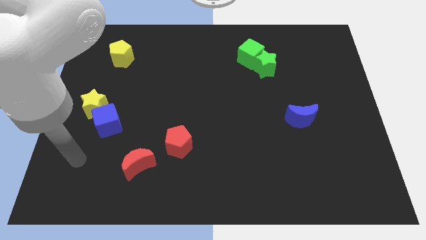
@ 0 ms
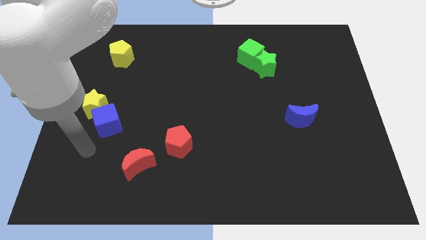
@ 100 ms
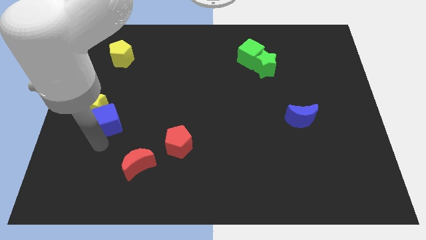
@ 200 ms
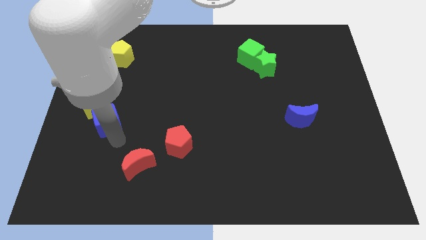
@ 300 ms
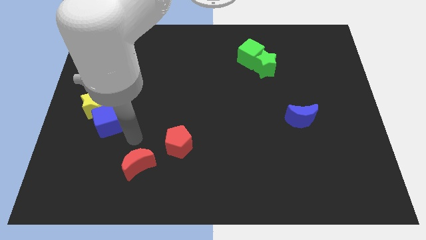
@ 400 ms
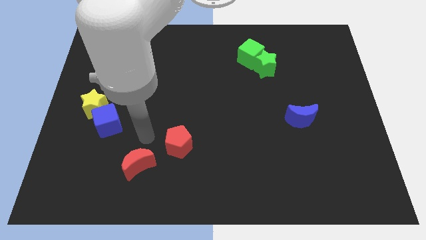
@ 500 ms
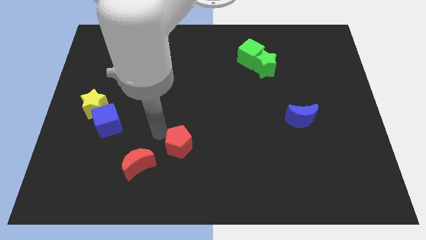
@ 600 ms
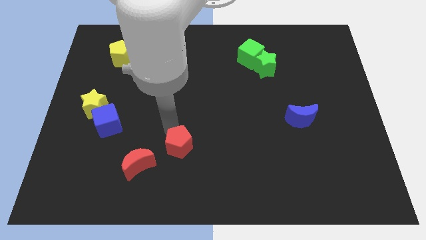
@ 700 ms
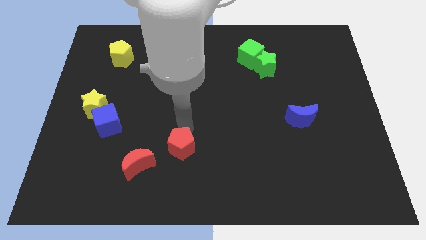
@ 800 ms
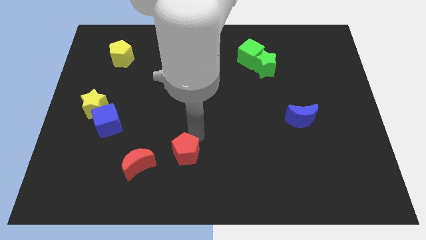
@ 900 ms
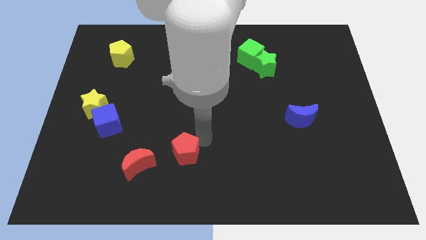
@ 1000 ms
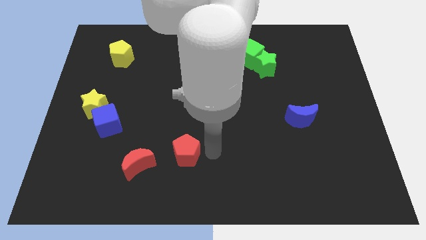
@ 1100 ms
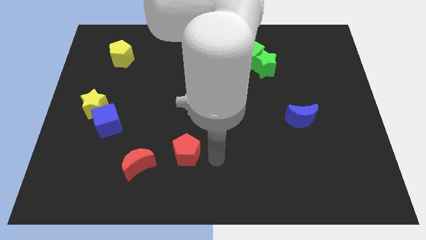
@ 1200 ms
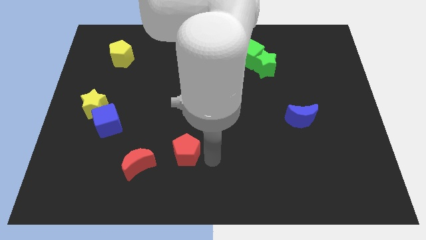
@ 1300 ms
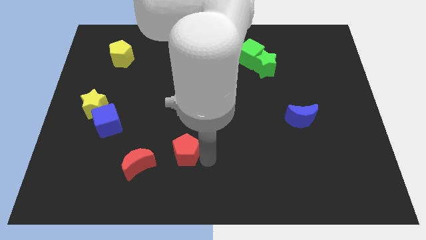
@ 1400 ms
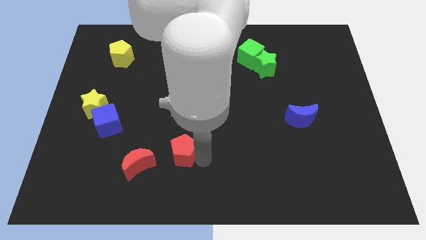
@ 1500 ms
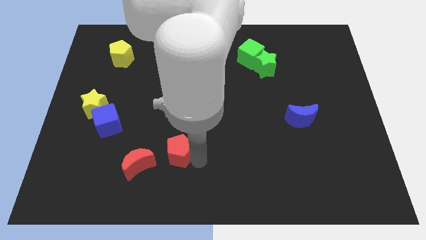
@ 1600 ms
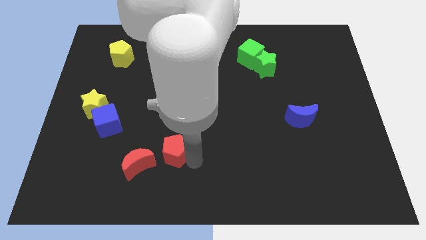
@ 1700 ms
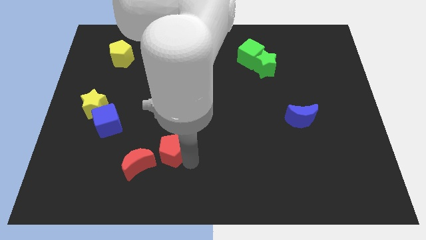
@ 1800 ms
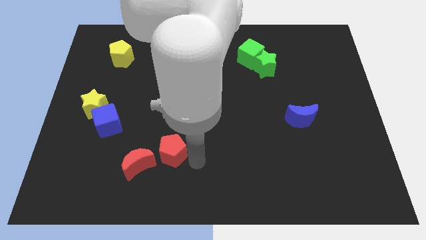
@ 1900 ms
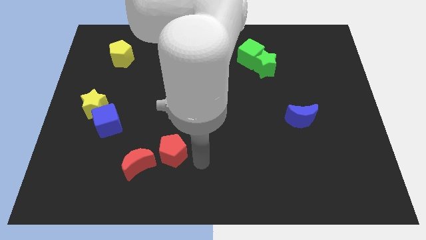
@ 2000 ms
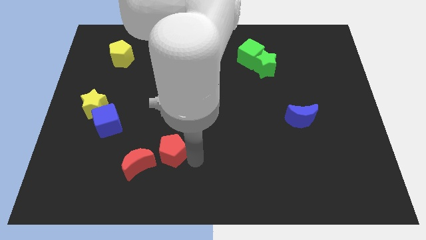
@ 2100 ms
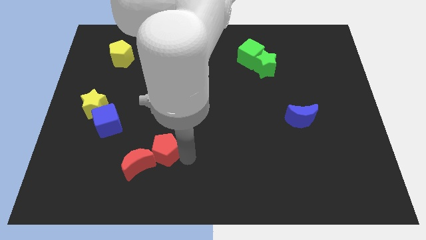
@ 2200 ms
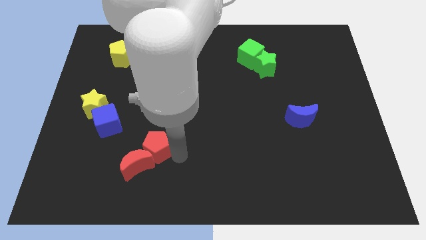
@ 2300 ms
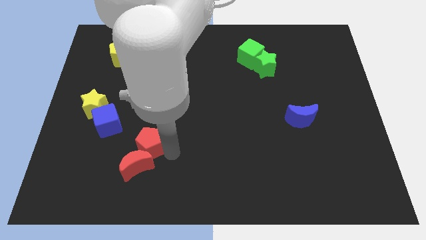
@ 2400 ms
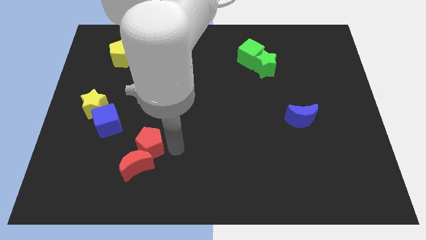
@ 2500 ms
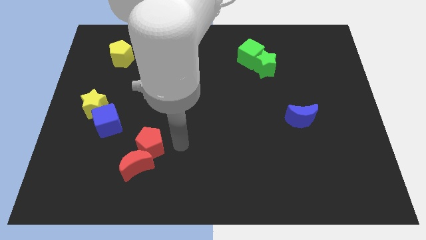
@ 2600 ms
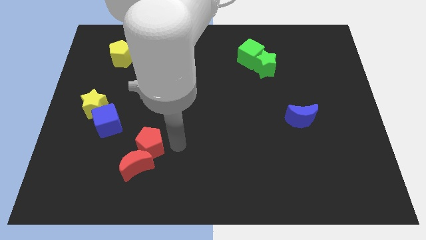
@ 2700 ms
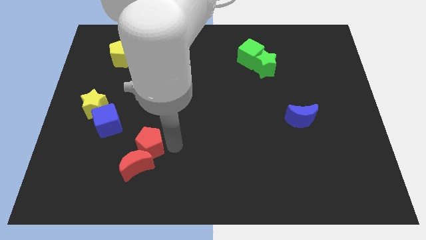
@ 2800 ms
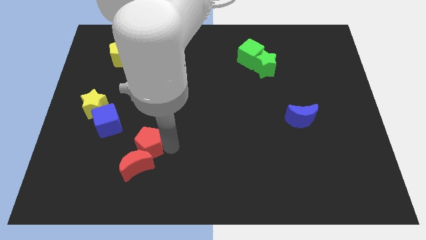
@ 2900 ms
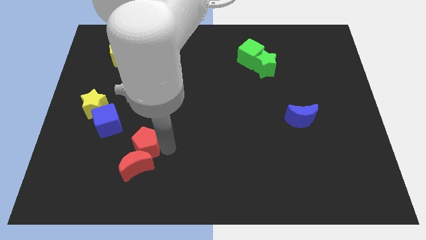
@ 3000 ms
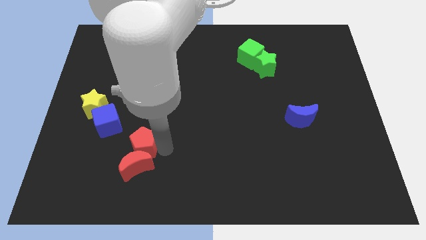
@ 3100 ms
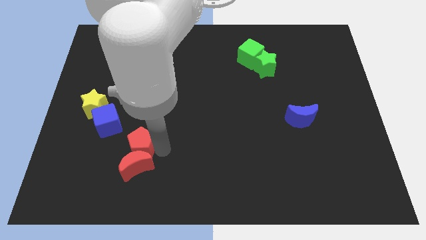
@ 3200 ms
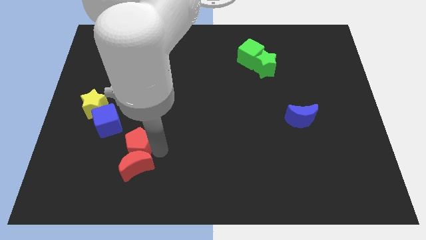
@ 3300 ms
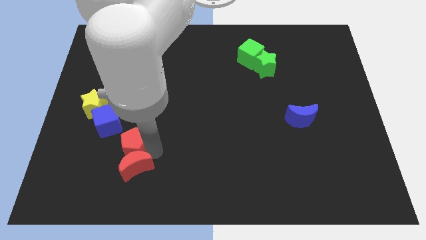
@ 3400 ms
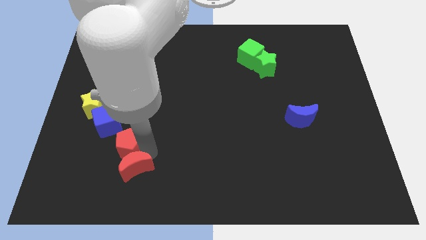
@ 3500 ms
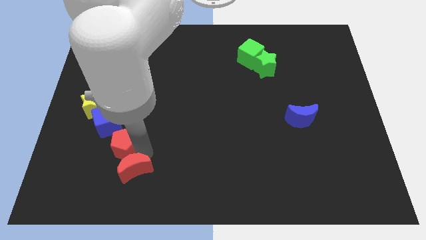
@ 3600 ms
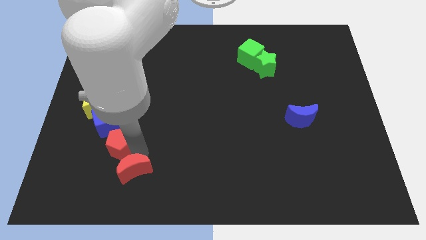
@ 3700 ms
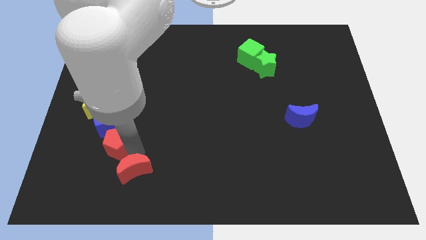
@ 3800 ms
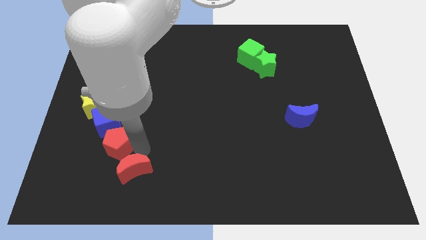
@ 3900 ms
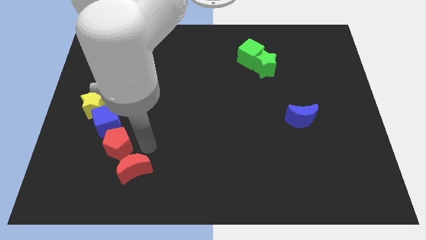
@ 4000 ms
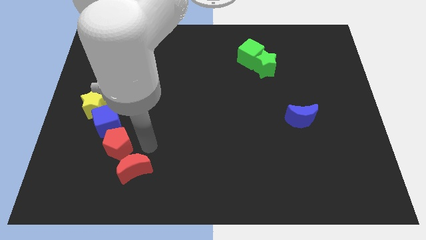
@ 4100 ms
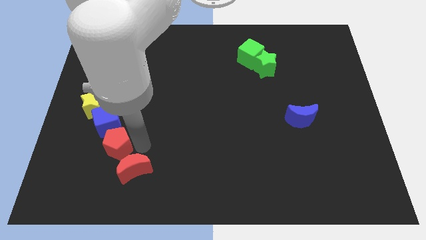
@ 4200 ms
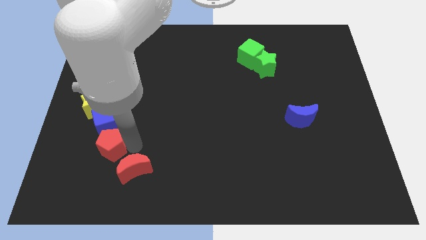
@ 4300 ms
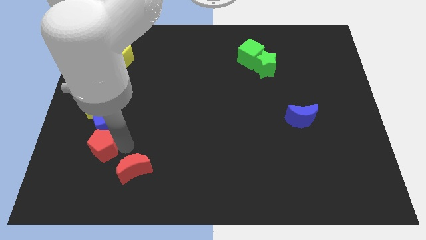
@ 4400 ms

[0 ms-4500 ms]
move the red pentagon to the bottom of the yellow star

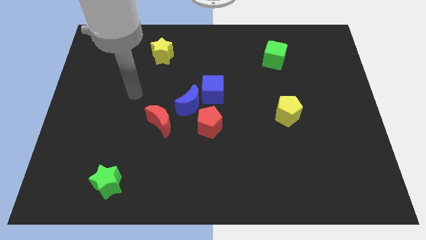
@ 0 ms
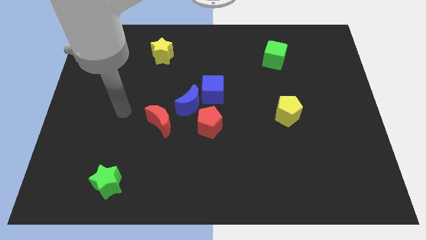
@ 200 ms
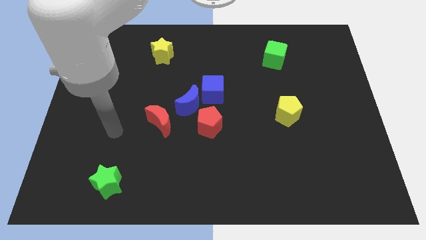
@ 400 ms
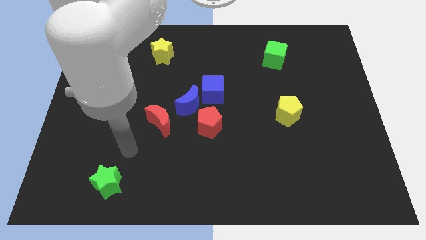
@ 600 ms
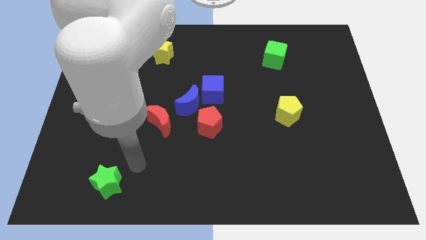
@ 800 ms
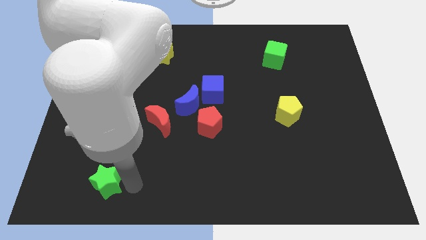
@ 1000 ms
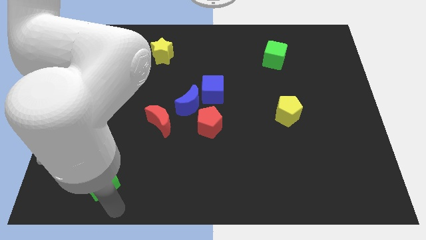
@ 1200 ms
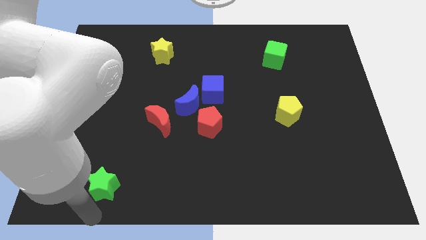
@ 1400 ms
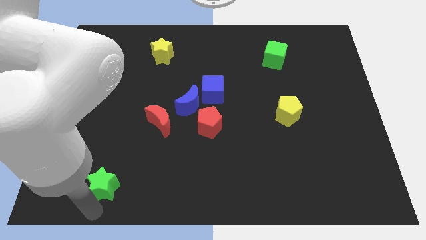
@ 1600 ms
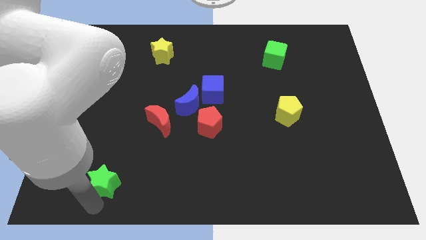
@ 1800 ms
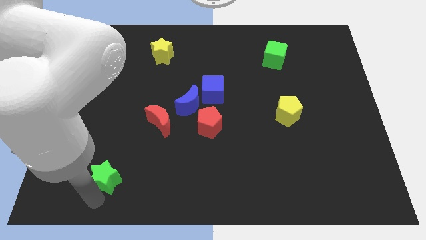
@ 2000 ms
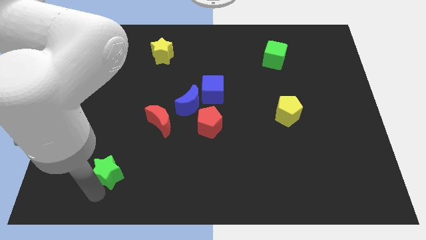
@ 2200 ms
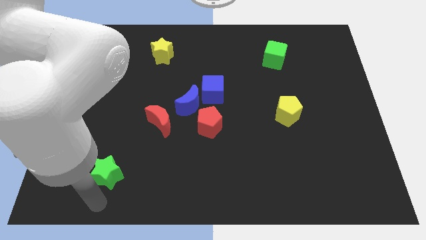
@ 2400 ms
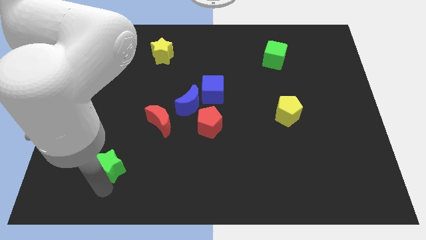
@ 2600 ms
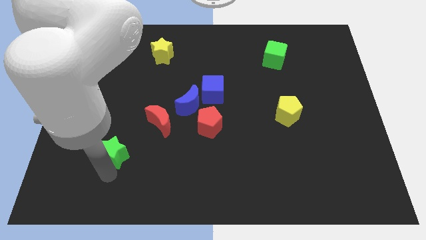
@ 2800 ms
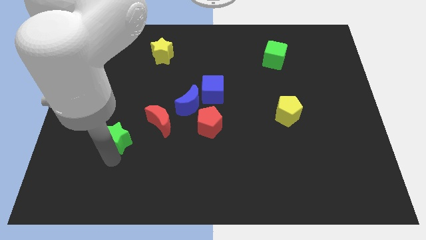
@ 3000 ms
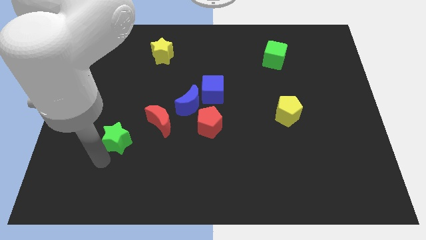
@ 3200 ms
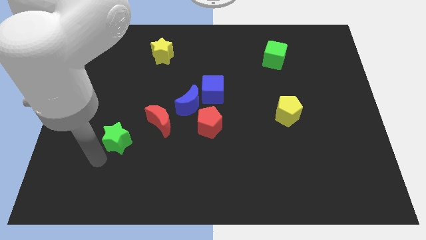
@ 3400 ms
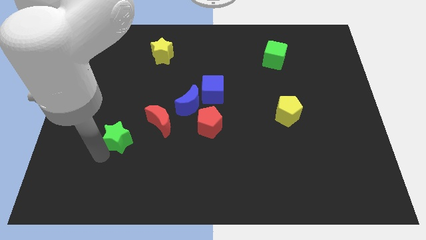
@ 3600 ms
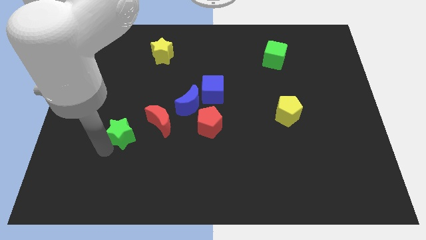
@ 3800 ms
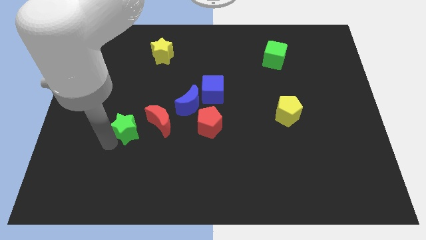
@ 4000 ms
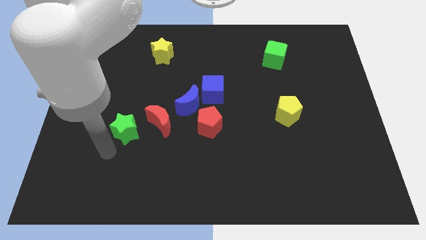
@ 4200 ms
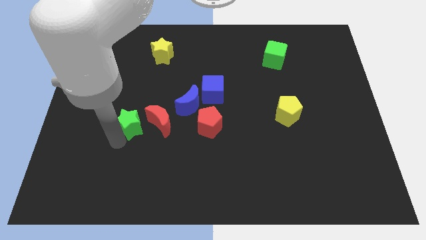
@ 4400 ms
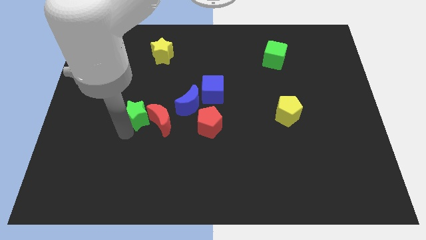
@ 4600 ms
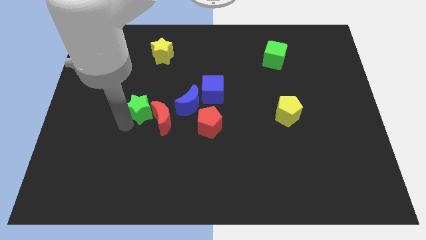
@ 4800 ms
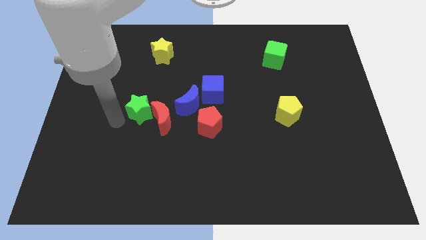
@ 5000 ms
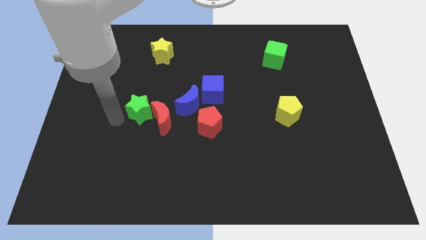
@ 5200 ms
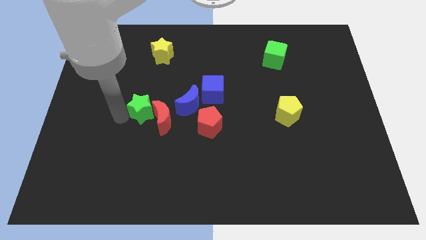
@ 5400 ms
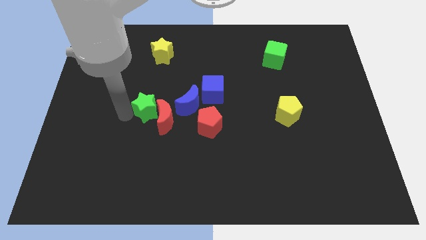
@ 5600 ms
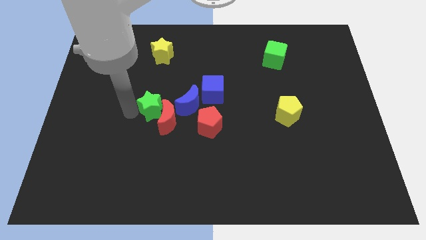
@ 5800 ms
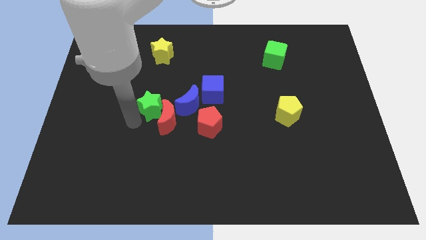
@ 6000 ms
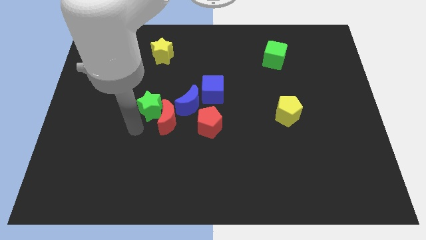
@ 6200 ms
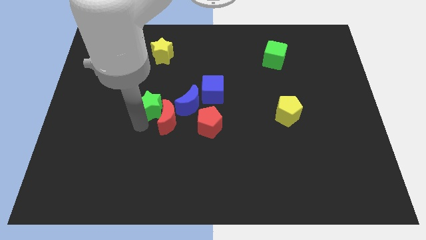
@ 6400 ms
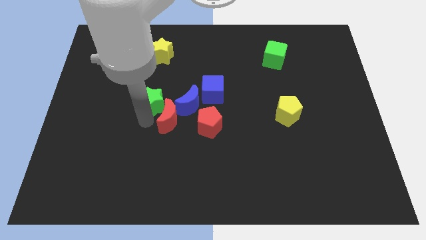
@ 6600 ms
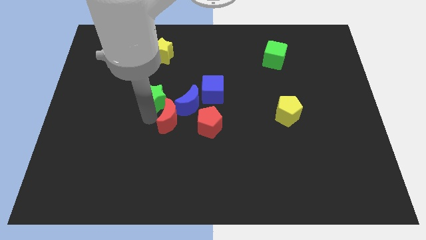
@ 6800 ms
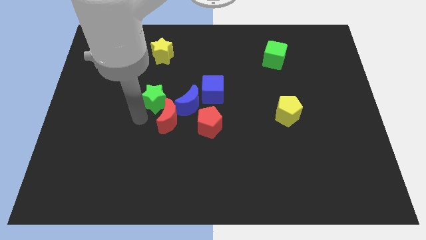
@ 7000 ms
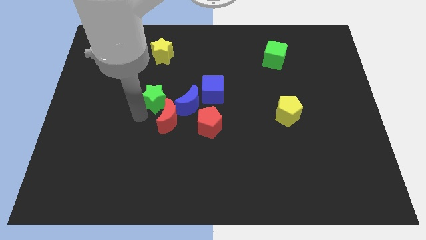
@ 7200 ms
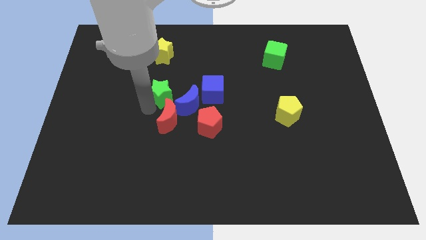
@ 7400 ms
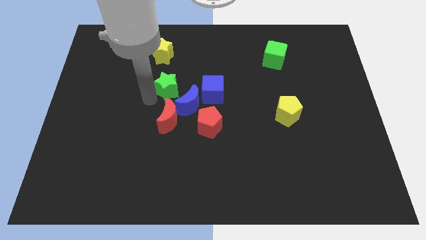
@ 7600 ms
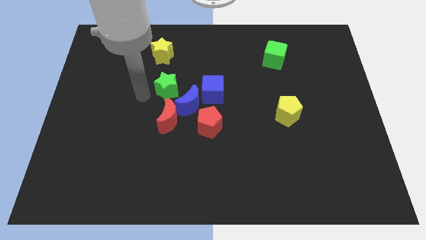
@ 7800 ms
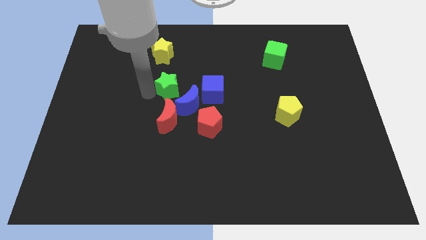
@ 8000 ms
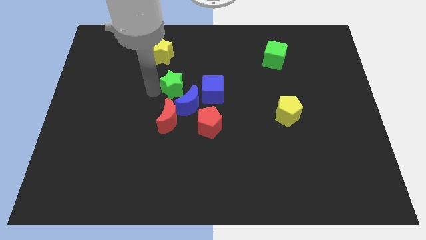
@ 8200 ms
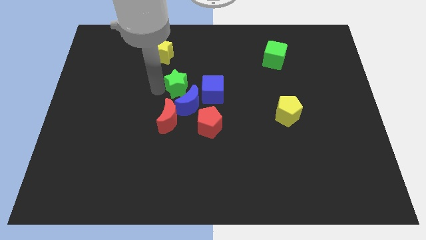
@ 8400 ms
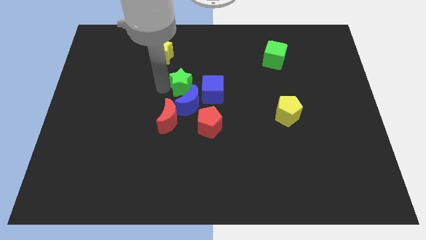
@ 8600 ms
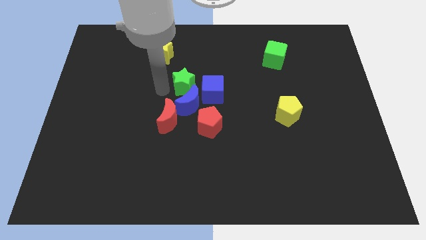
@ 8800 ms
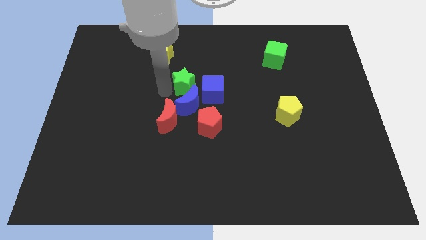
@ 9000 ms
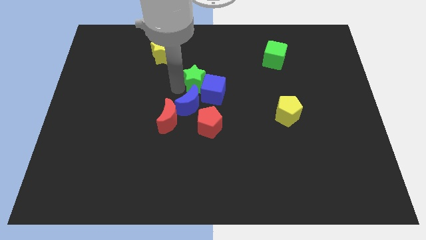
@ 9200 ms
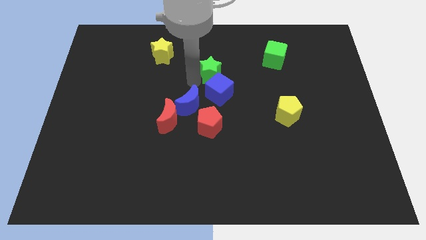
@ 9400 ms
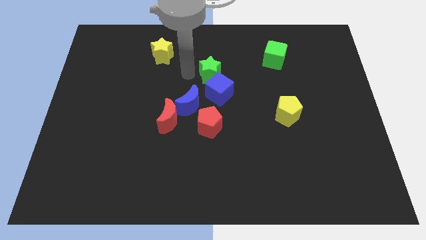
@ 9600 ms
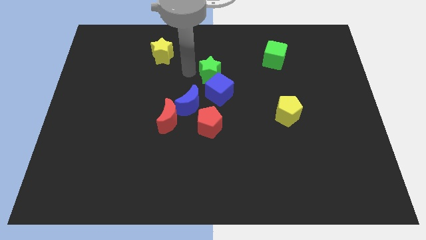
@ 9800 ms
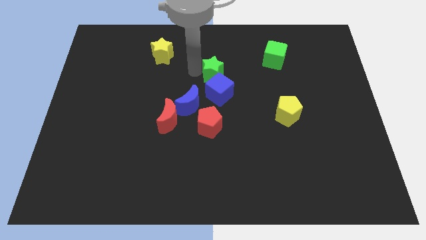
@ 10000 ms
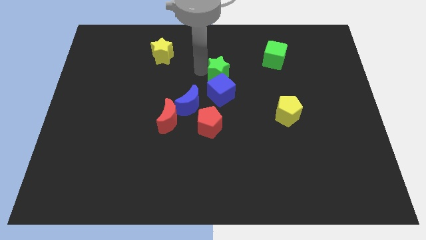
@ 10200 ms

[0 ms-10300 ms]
put the green star to the top right side of the blue cube
